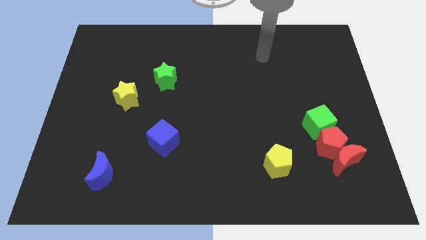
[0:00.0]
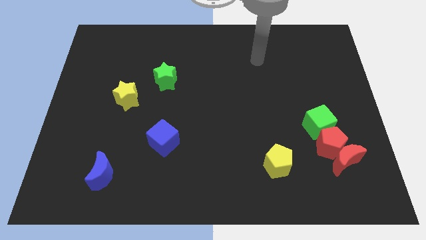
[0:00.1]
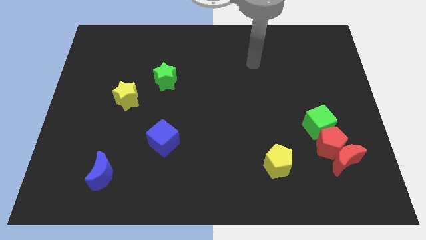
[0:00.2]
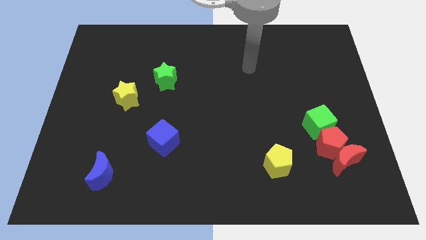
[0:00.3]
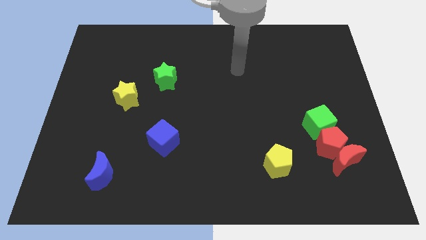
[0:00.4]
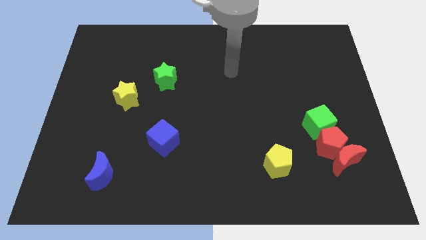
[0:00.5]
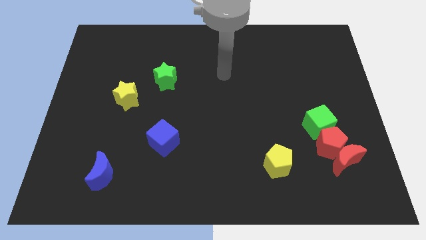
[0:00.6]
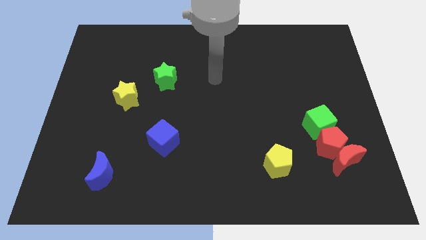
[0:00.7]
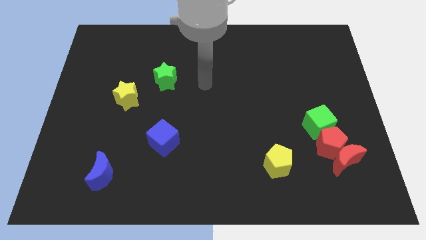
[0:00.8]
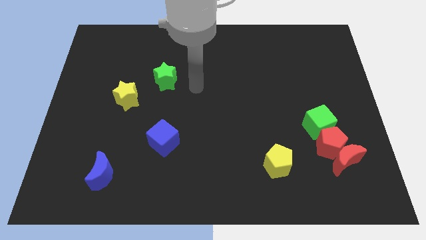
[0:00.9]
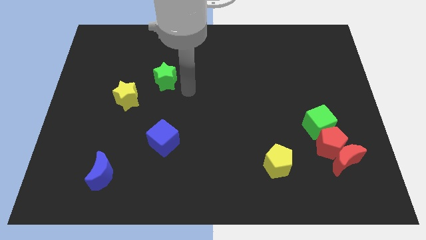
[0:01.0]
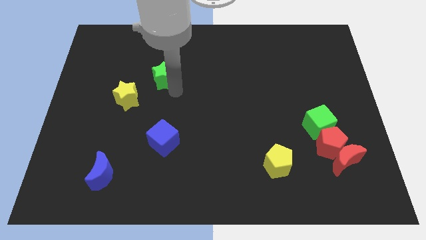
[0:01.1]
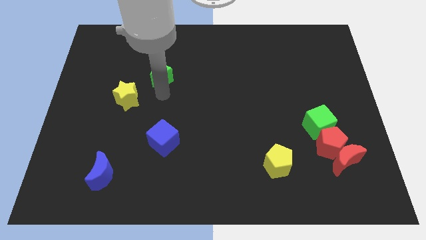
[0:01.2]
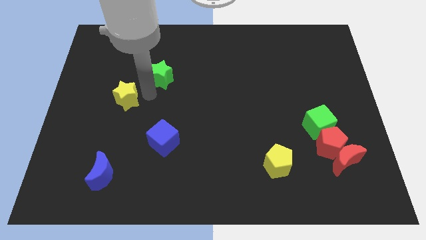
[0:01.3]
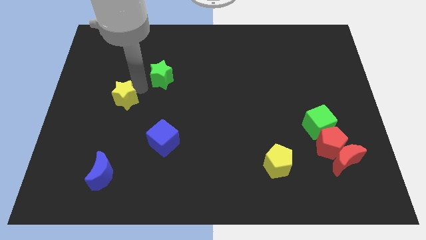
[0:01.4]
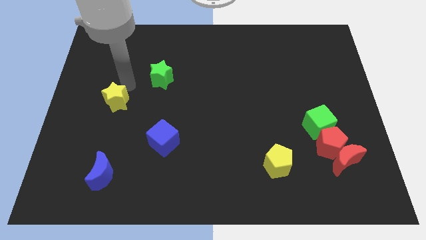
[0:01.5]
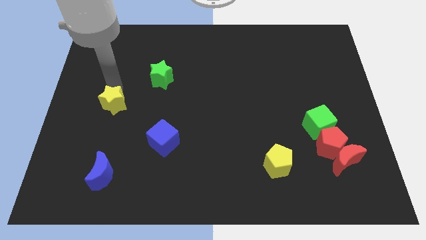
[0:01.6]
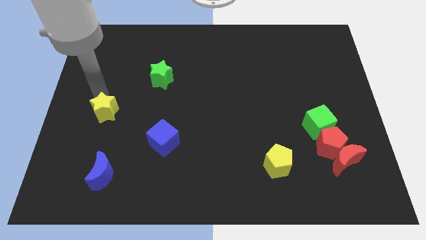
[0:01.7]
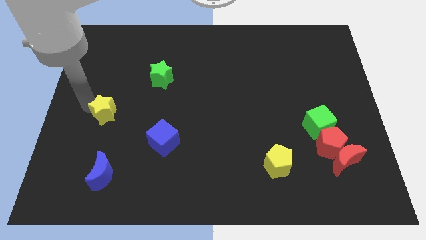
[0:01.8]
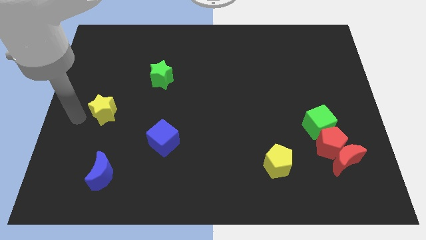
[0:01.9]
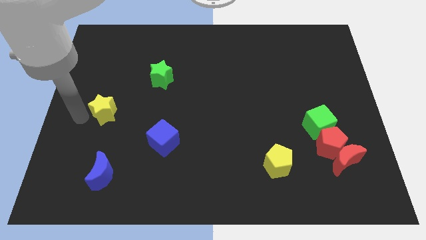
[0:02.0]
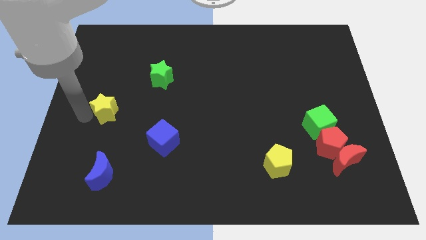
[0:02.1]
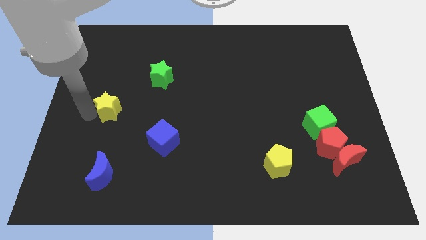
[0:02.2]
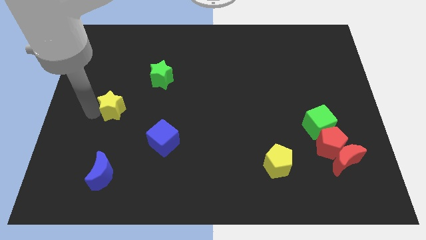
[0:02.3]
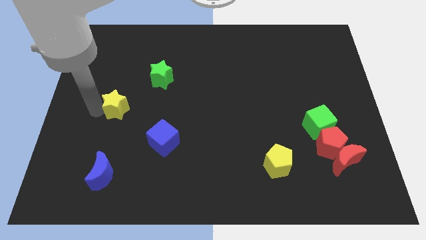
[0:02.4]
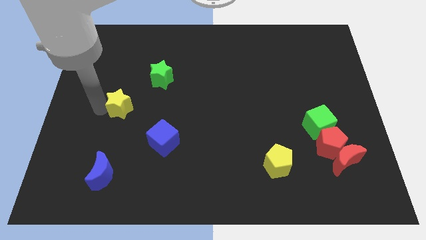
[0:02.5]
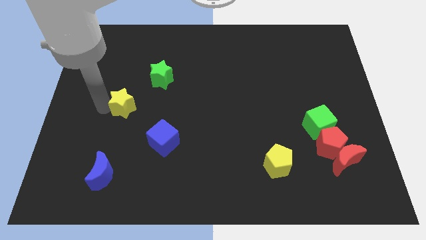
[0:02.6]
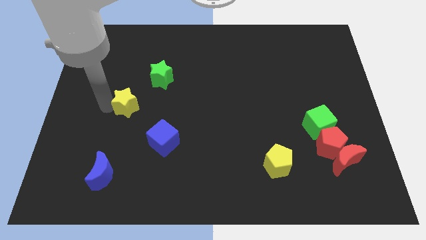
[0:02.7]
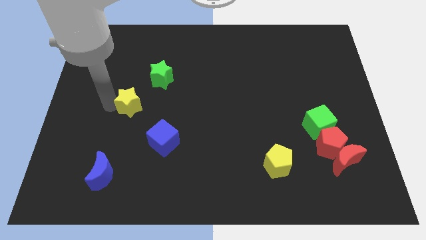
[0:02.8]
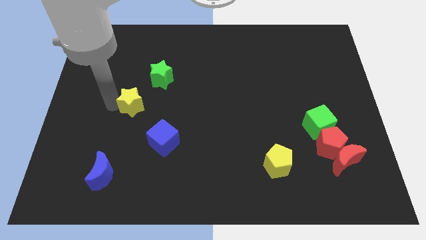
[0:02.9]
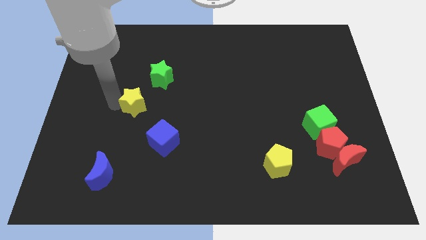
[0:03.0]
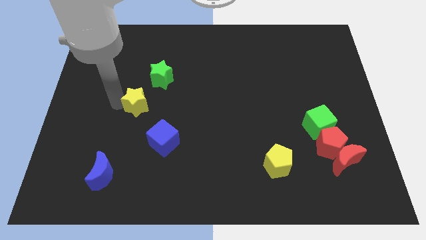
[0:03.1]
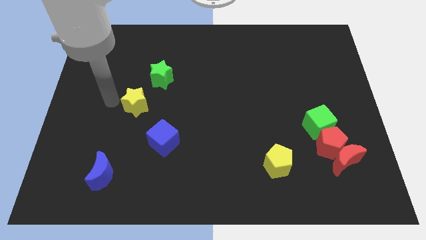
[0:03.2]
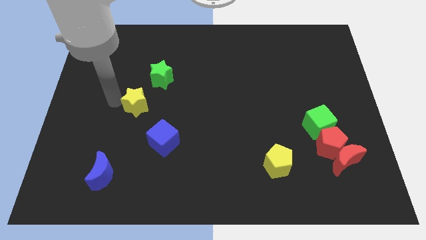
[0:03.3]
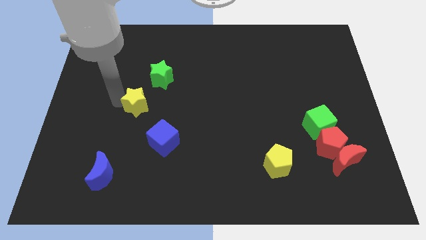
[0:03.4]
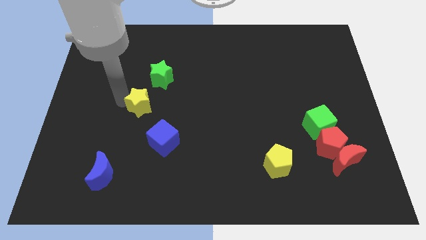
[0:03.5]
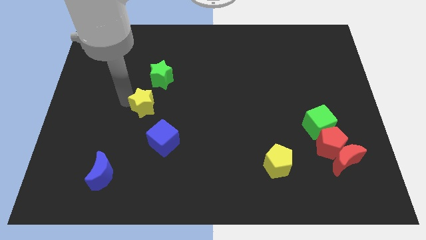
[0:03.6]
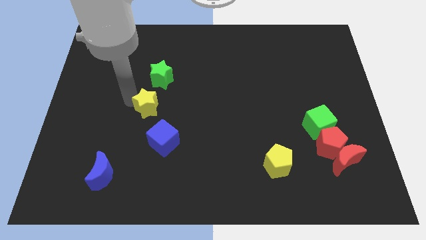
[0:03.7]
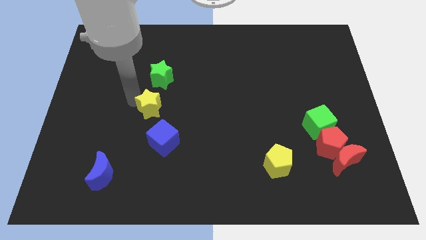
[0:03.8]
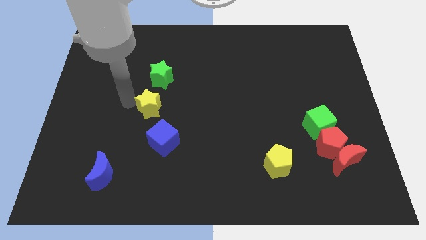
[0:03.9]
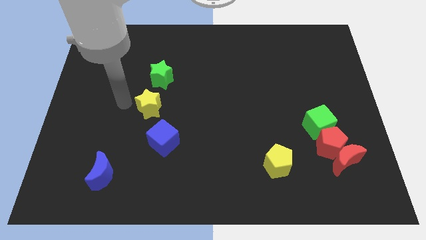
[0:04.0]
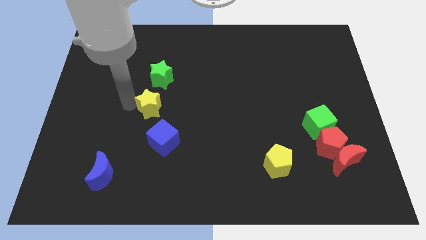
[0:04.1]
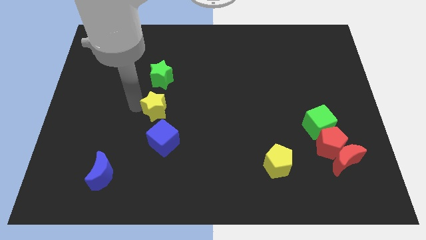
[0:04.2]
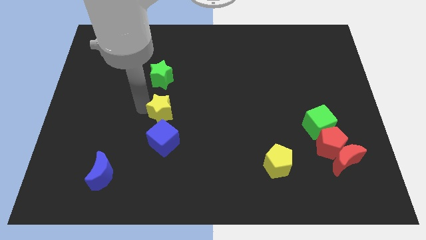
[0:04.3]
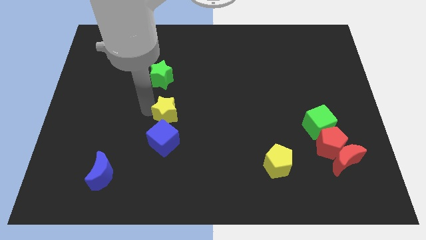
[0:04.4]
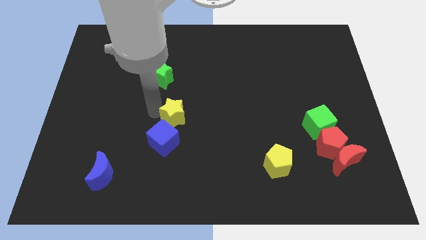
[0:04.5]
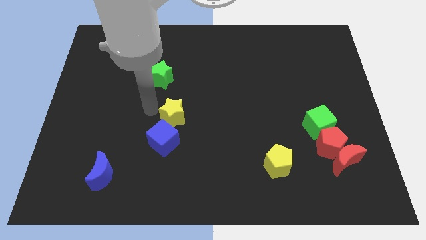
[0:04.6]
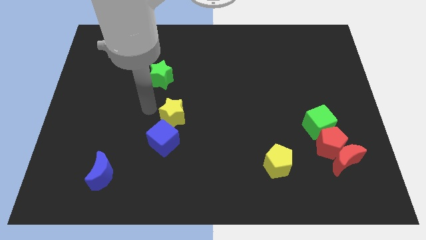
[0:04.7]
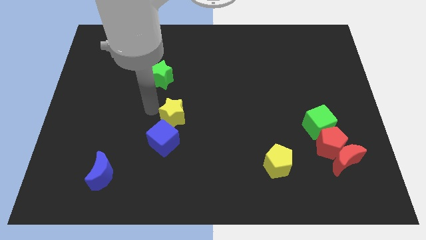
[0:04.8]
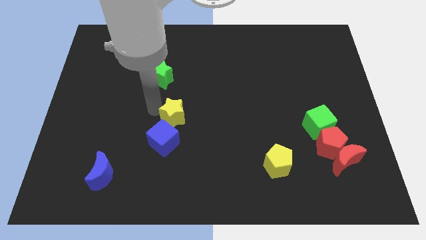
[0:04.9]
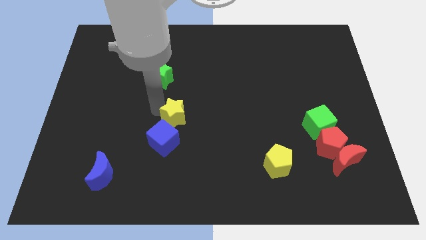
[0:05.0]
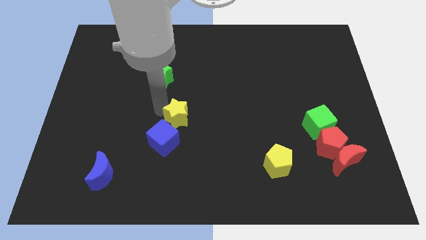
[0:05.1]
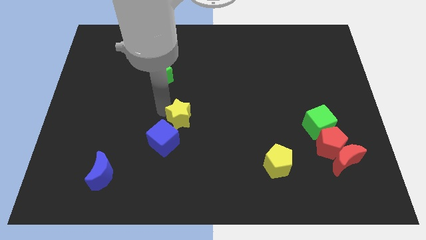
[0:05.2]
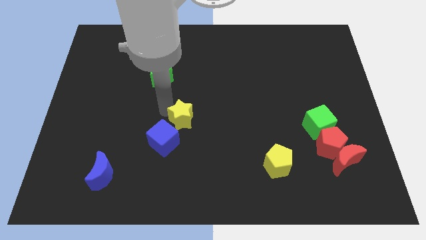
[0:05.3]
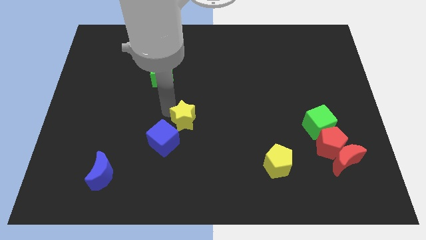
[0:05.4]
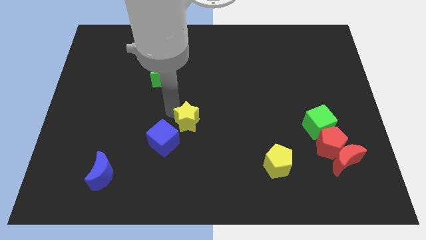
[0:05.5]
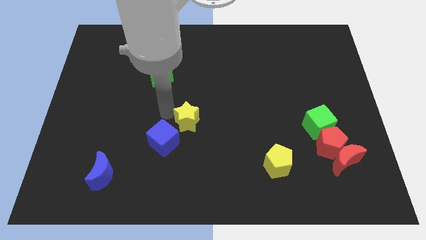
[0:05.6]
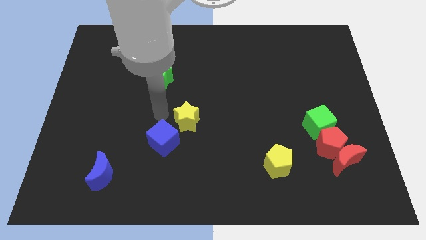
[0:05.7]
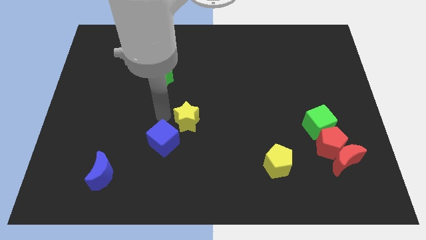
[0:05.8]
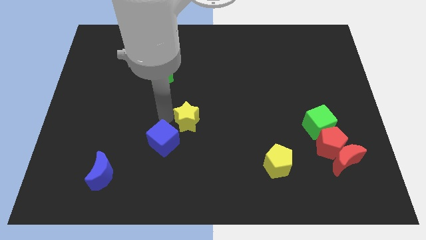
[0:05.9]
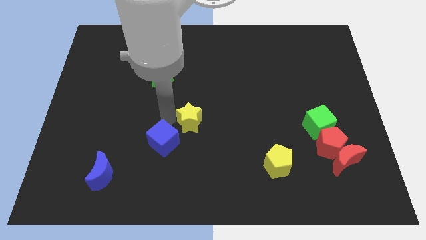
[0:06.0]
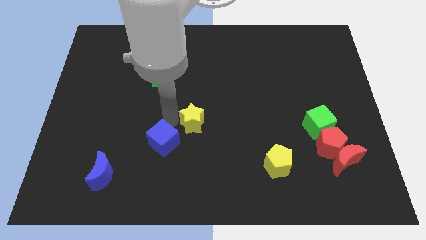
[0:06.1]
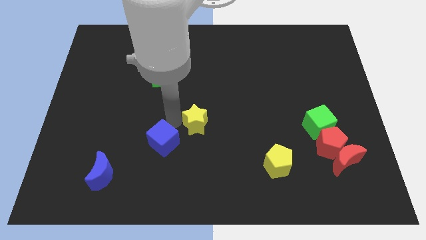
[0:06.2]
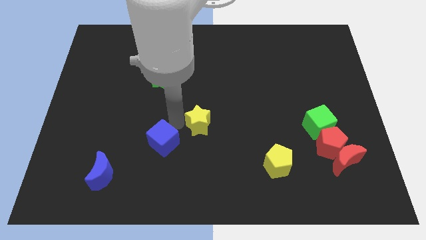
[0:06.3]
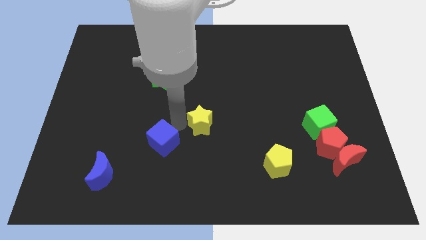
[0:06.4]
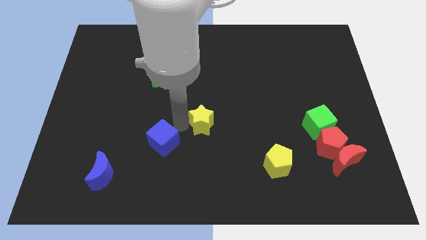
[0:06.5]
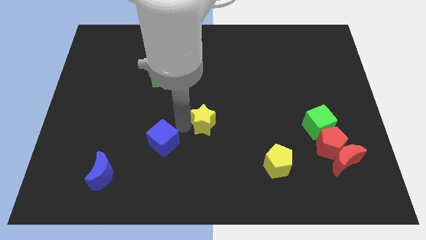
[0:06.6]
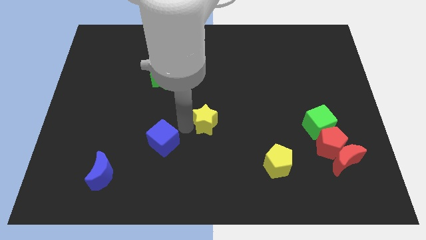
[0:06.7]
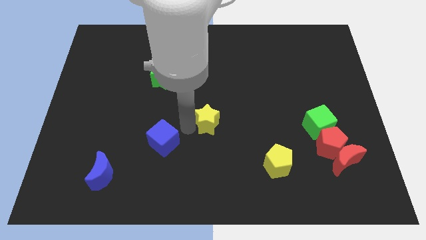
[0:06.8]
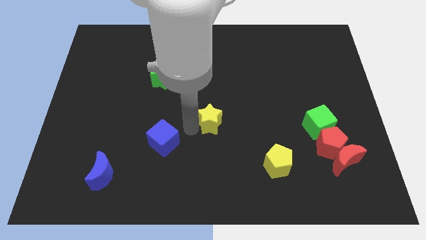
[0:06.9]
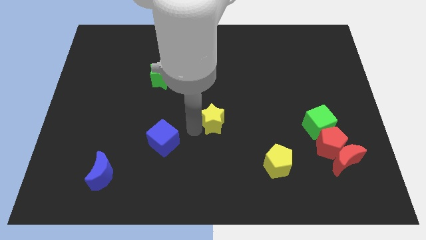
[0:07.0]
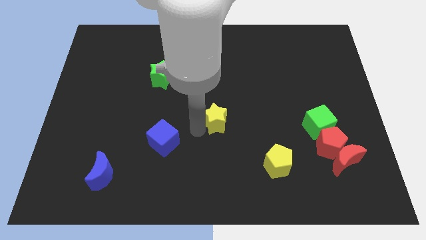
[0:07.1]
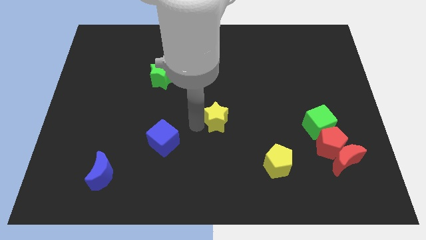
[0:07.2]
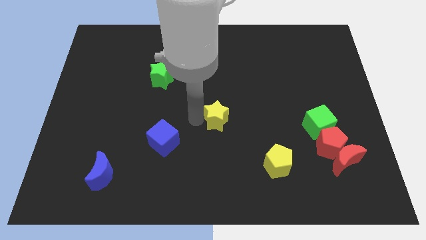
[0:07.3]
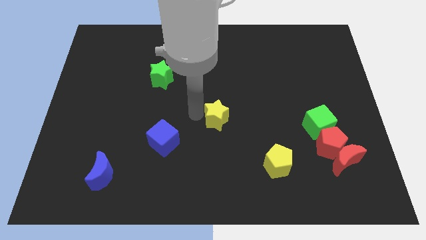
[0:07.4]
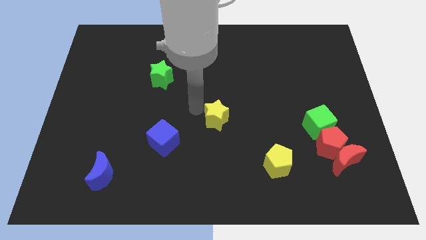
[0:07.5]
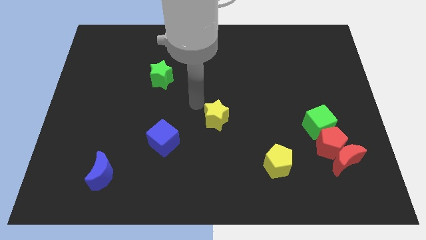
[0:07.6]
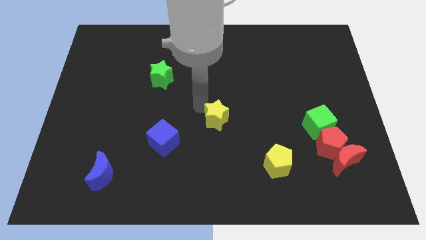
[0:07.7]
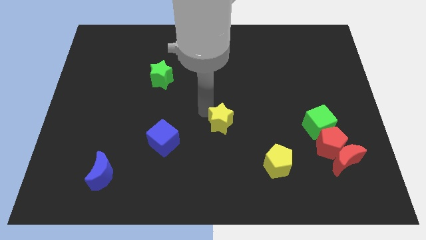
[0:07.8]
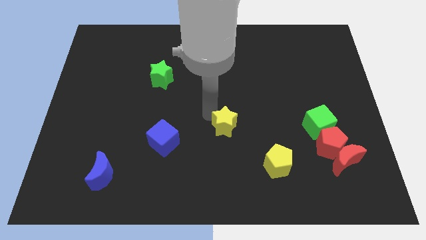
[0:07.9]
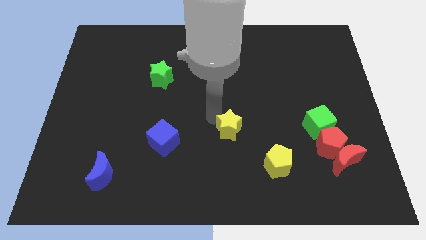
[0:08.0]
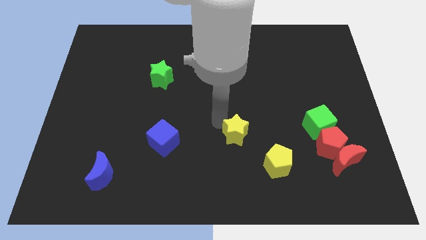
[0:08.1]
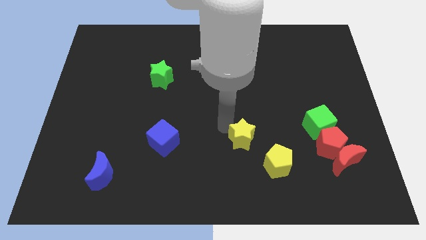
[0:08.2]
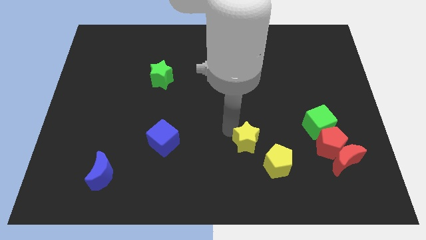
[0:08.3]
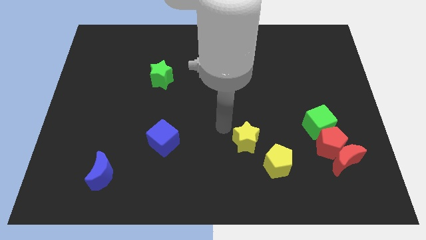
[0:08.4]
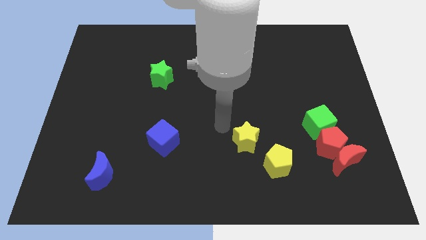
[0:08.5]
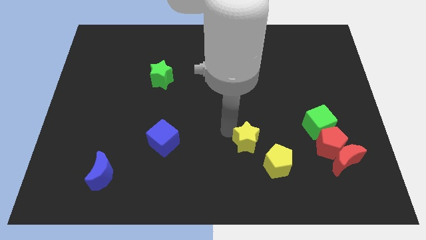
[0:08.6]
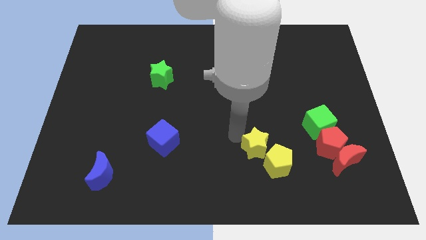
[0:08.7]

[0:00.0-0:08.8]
slide the yellow star to the yellow pentagon
